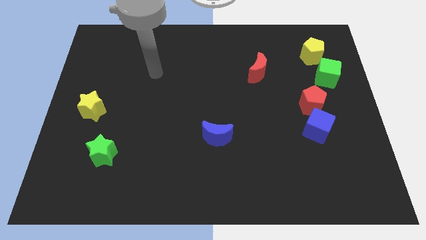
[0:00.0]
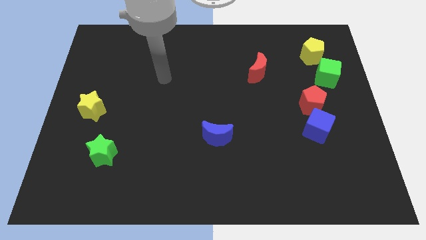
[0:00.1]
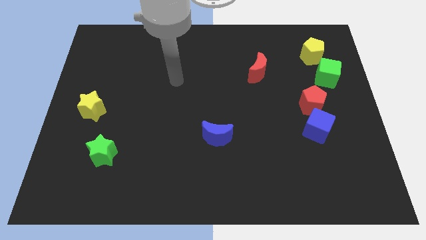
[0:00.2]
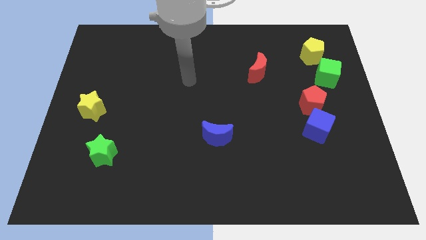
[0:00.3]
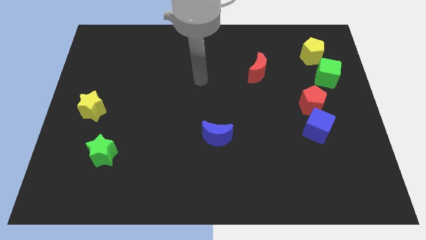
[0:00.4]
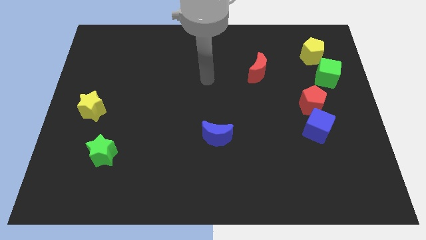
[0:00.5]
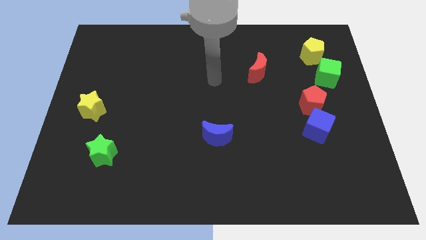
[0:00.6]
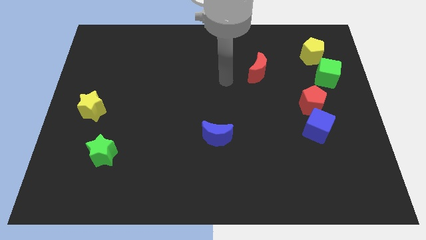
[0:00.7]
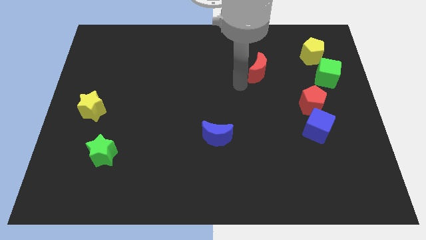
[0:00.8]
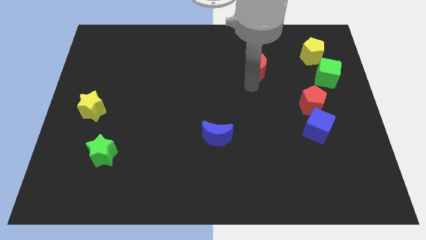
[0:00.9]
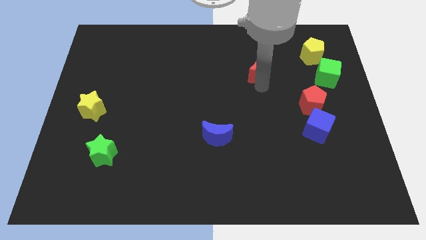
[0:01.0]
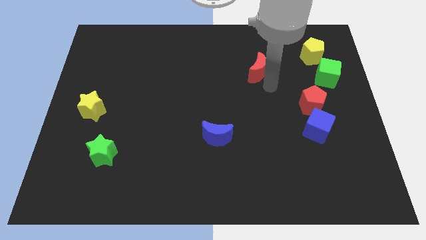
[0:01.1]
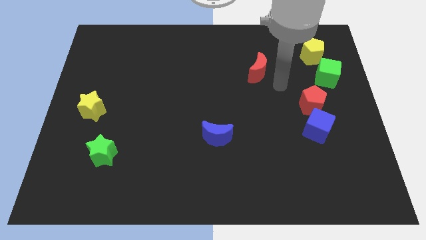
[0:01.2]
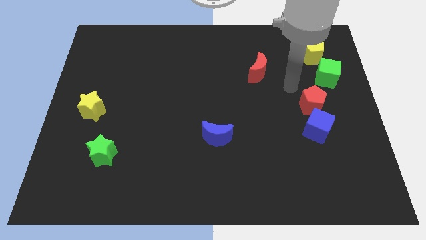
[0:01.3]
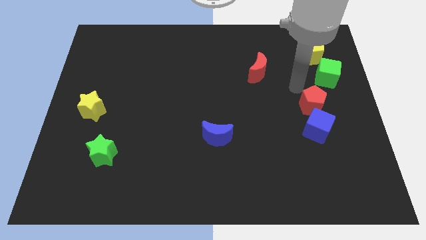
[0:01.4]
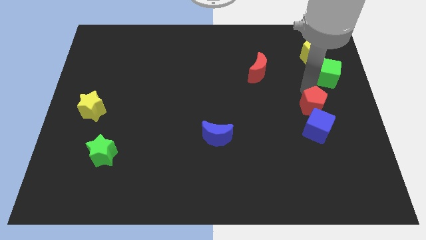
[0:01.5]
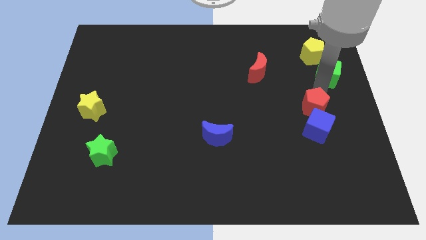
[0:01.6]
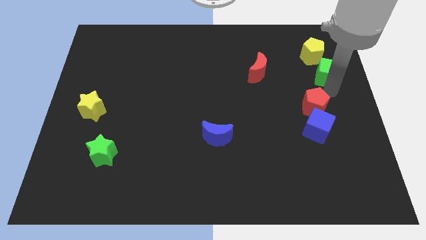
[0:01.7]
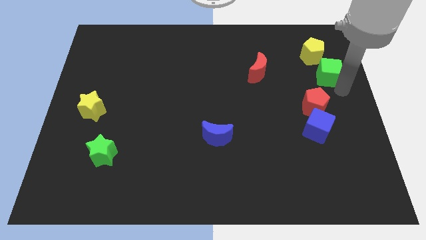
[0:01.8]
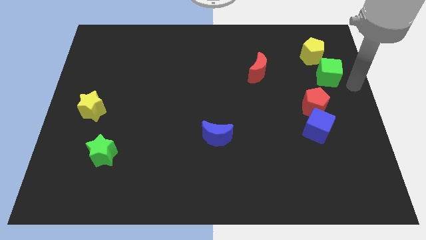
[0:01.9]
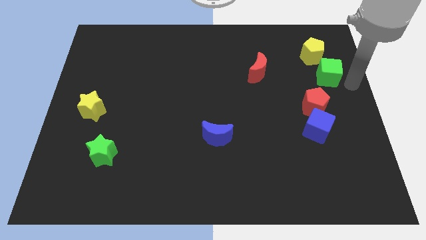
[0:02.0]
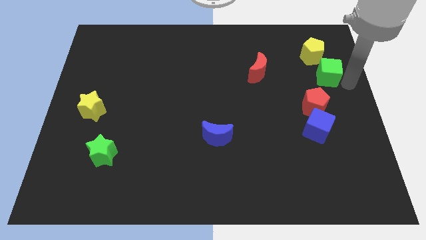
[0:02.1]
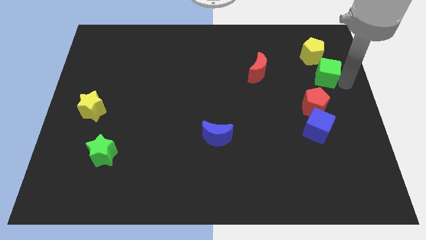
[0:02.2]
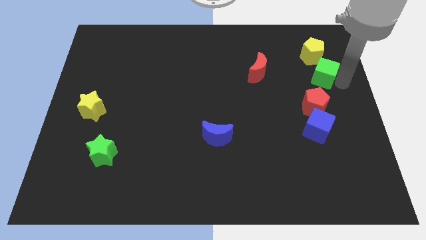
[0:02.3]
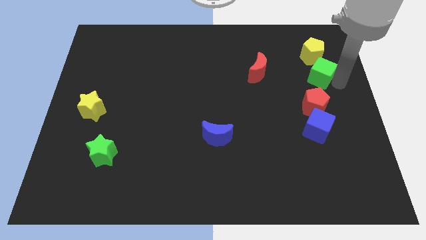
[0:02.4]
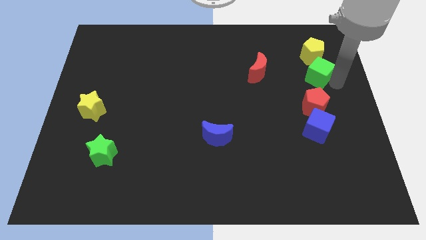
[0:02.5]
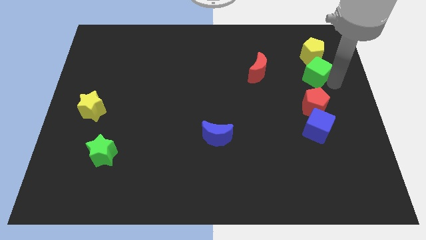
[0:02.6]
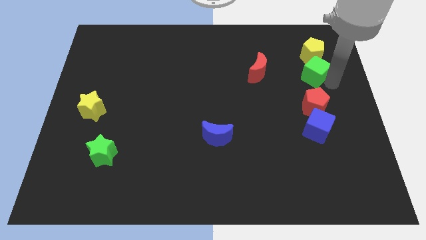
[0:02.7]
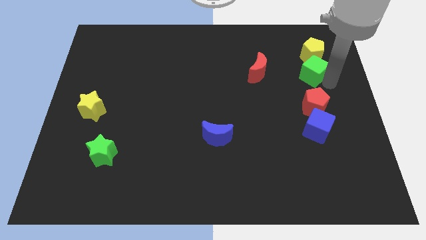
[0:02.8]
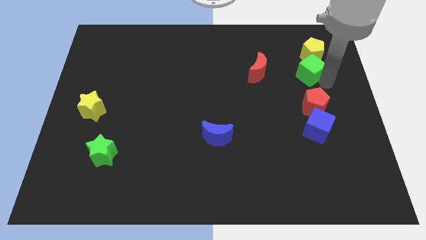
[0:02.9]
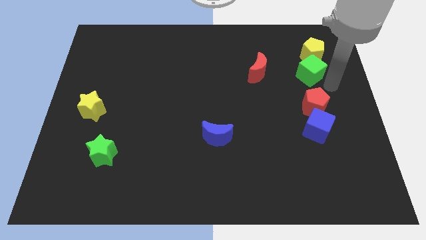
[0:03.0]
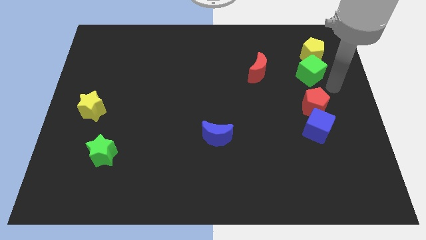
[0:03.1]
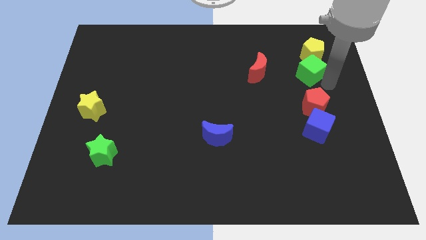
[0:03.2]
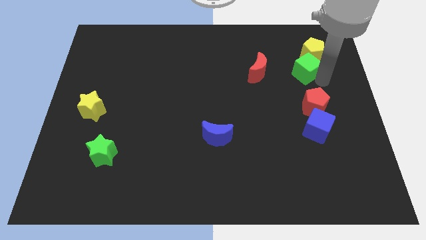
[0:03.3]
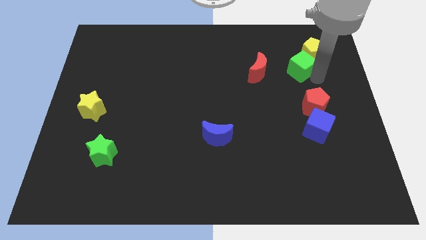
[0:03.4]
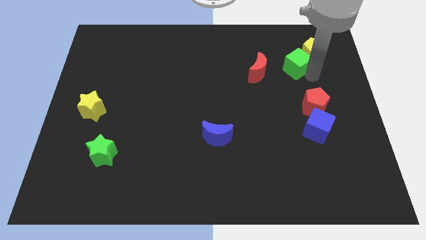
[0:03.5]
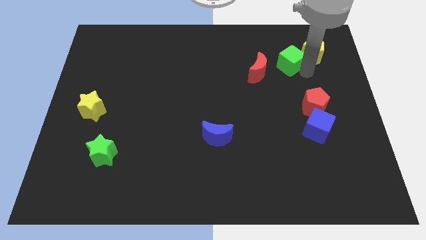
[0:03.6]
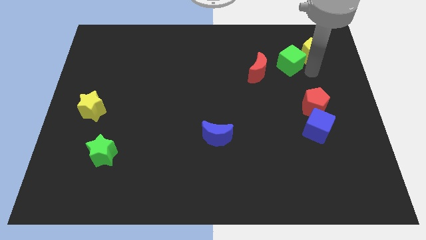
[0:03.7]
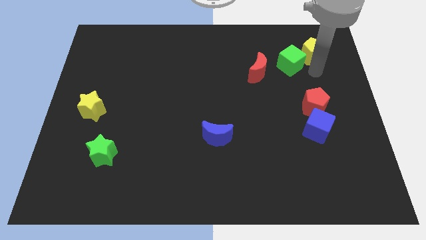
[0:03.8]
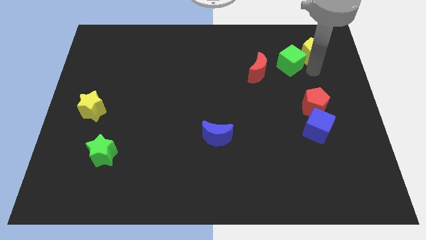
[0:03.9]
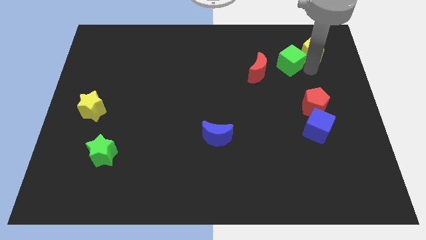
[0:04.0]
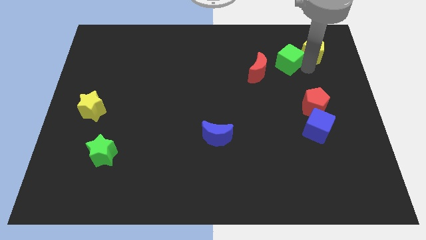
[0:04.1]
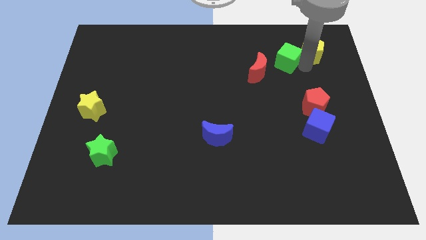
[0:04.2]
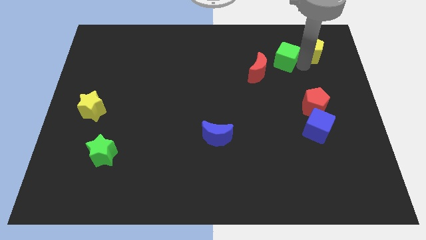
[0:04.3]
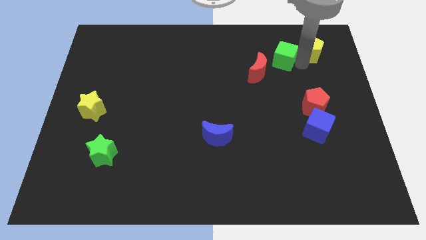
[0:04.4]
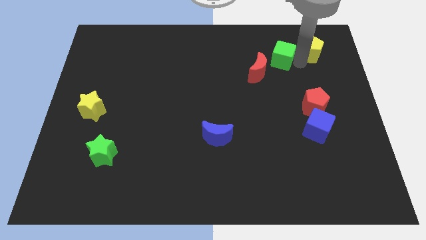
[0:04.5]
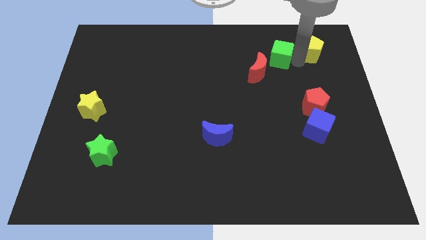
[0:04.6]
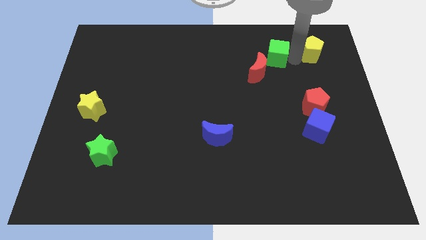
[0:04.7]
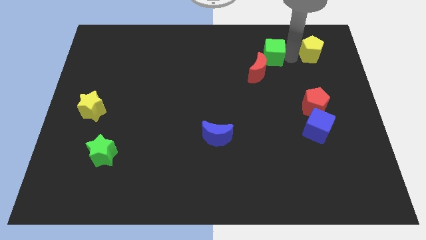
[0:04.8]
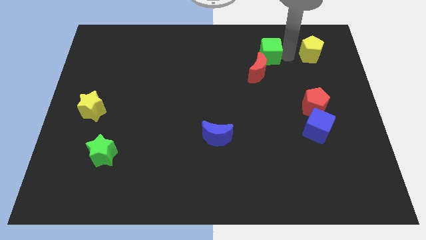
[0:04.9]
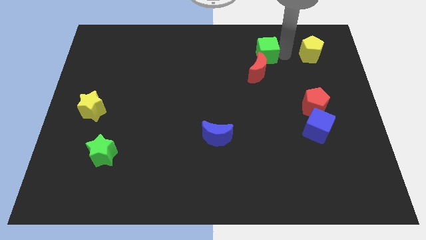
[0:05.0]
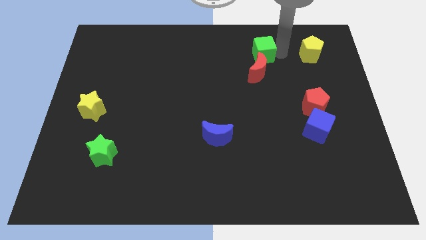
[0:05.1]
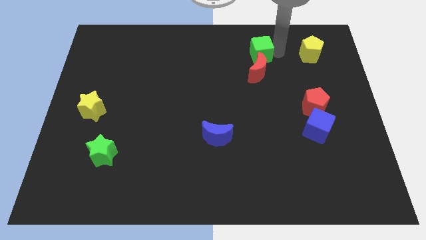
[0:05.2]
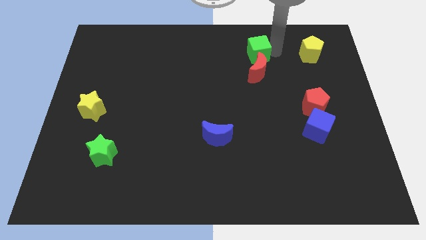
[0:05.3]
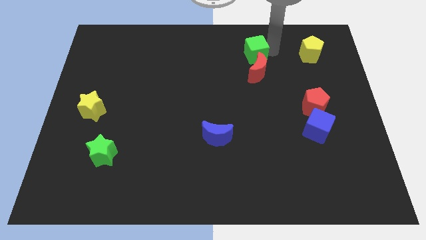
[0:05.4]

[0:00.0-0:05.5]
push the green cube to the top left of the red moon

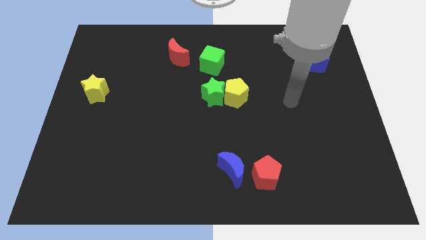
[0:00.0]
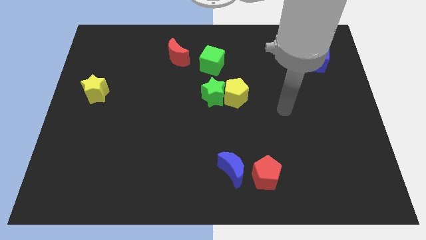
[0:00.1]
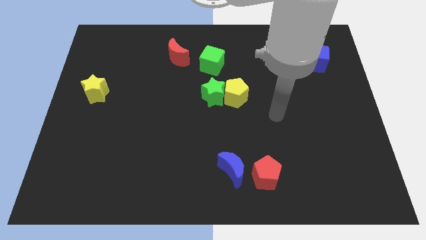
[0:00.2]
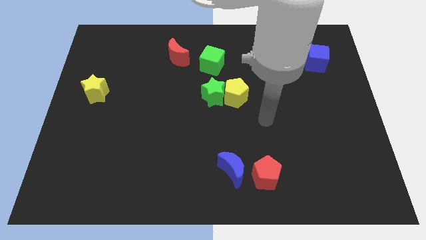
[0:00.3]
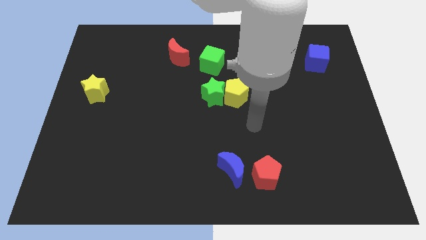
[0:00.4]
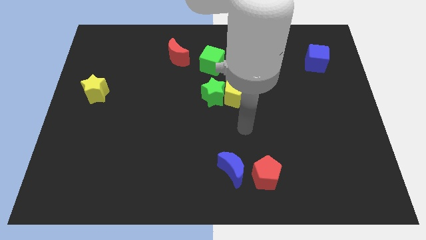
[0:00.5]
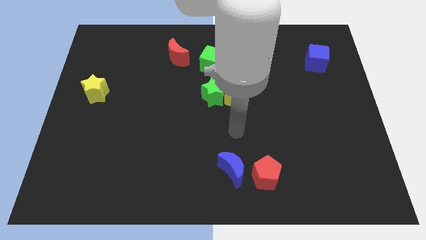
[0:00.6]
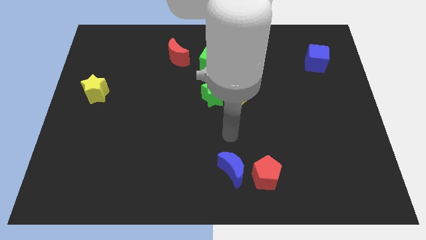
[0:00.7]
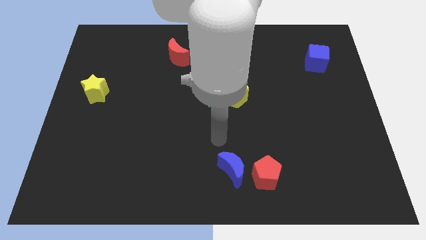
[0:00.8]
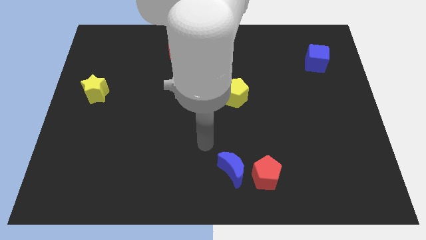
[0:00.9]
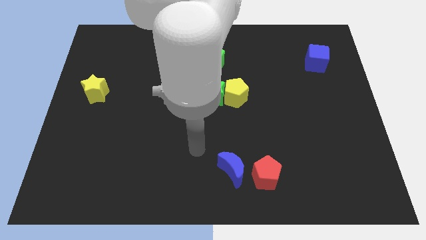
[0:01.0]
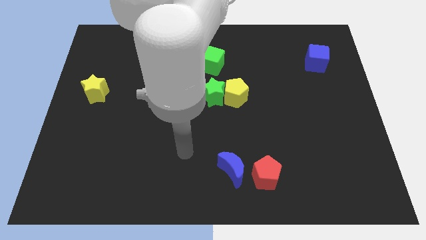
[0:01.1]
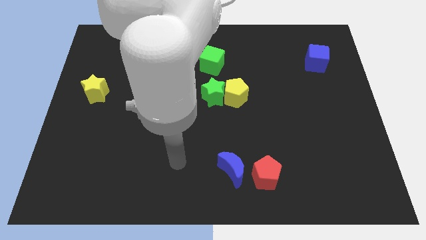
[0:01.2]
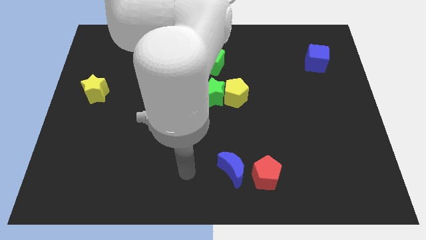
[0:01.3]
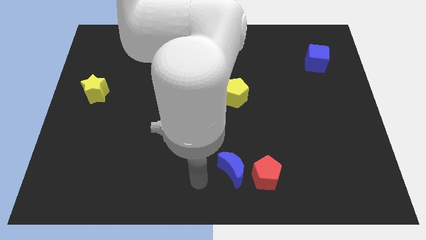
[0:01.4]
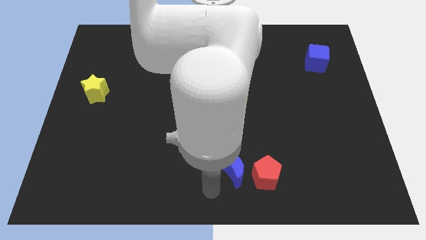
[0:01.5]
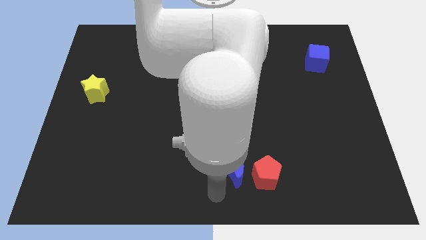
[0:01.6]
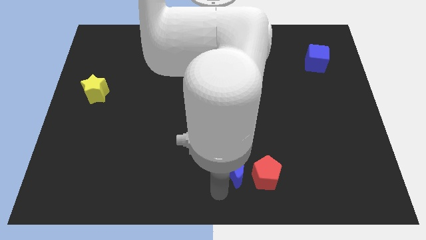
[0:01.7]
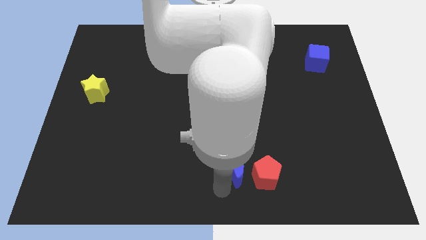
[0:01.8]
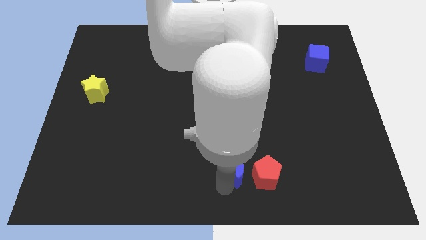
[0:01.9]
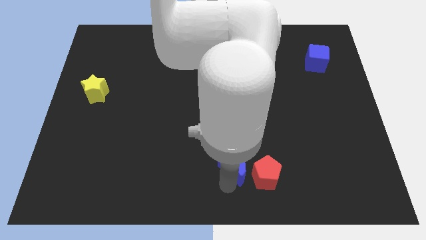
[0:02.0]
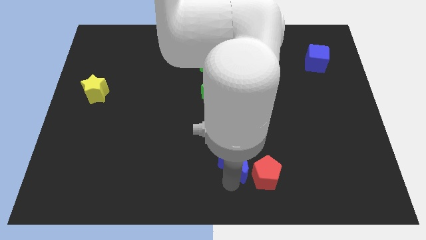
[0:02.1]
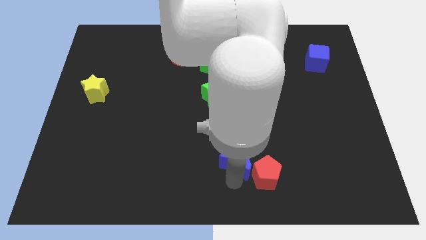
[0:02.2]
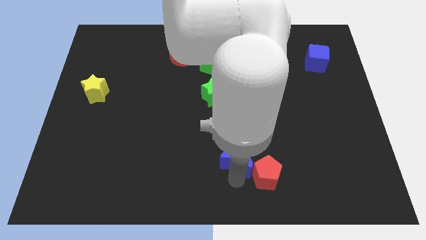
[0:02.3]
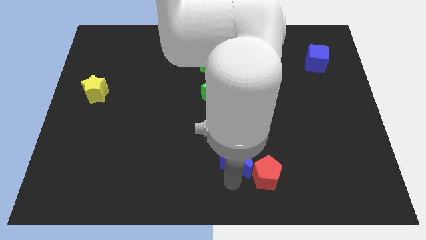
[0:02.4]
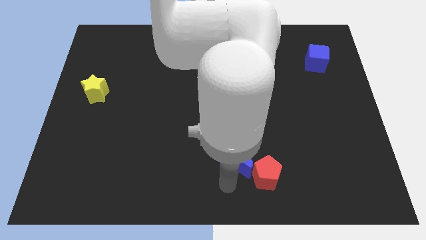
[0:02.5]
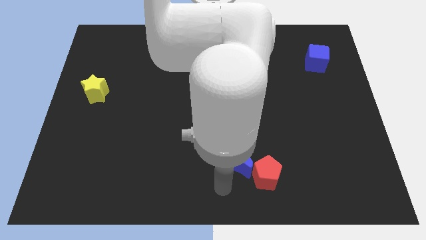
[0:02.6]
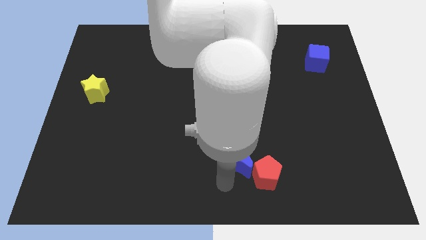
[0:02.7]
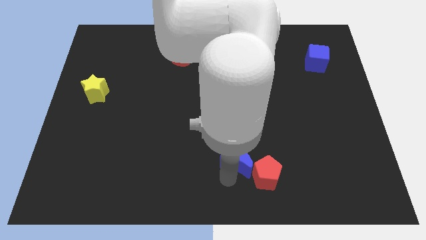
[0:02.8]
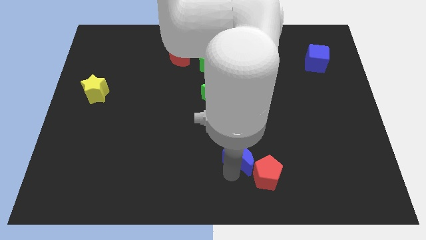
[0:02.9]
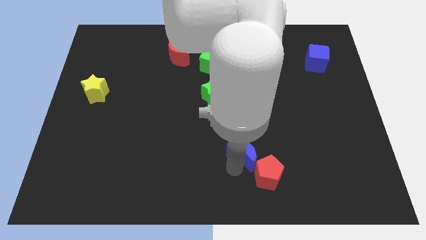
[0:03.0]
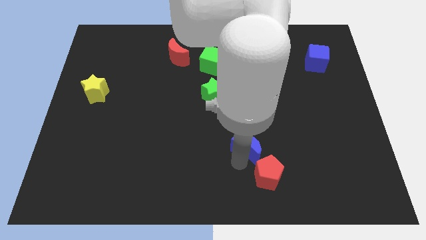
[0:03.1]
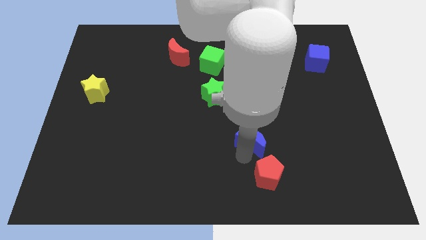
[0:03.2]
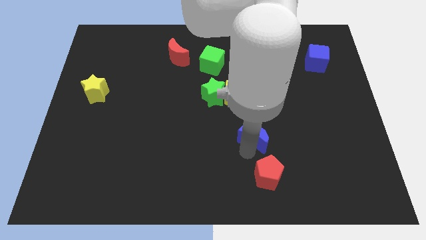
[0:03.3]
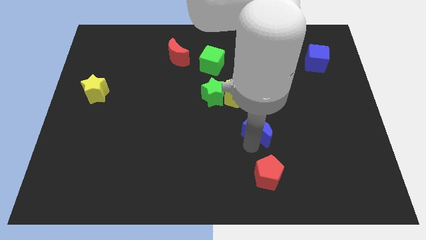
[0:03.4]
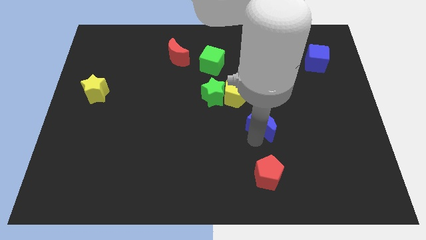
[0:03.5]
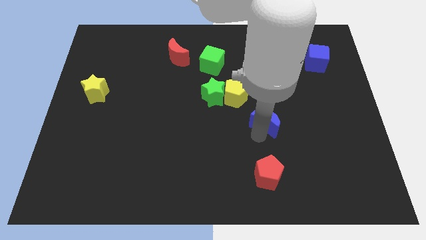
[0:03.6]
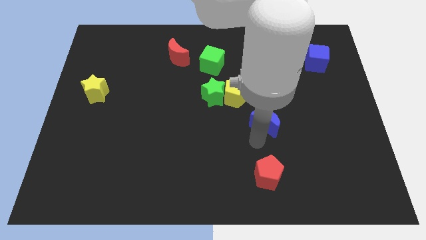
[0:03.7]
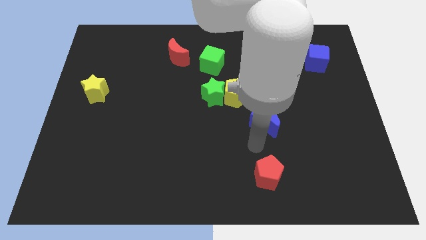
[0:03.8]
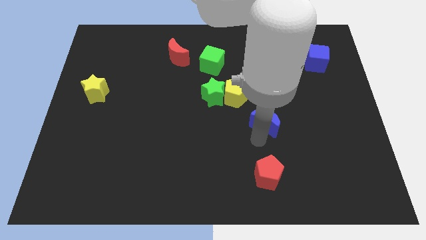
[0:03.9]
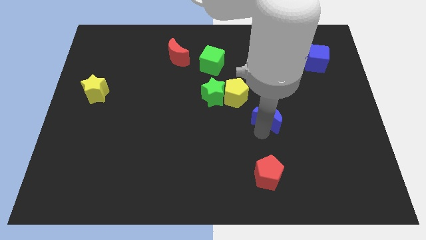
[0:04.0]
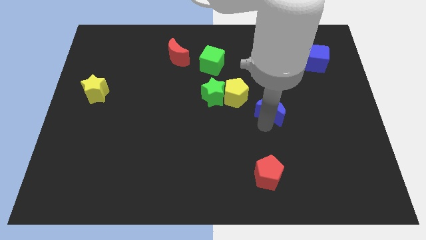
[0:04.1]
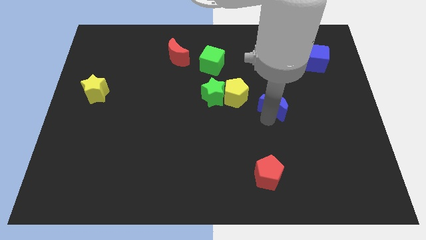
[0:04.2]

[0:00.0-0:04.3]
move the blue moon to the right side of the yellow pentagon
